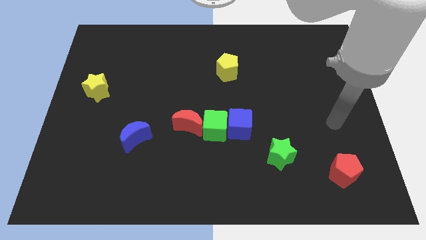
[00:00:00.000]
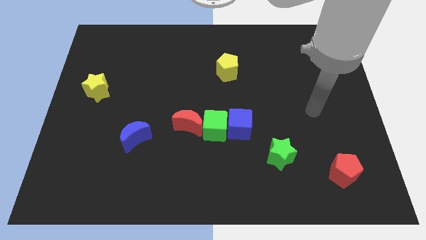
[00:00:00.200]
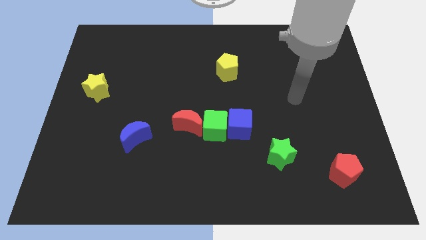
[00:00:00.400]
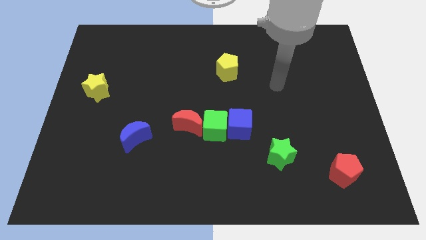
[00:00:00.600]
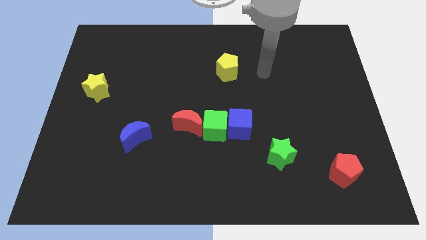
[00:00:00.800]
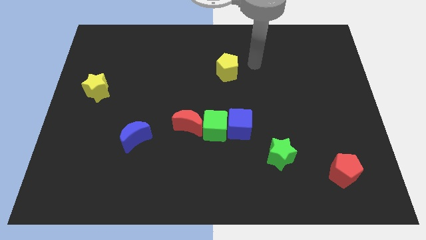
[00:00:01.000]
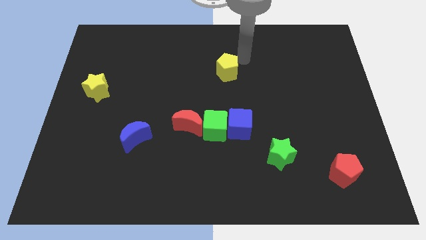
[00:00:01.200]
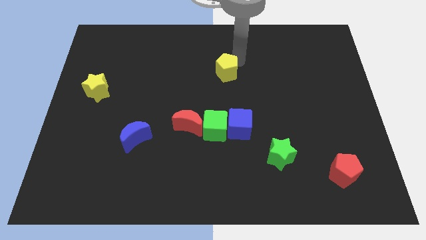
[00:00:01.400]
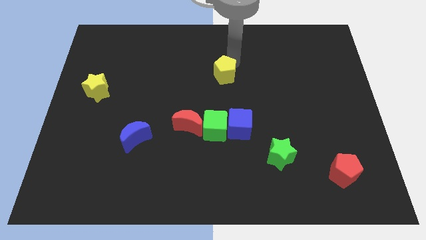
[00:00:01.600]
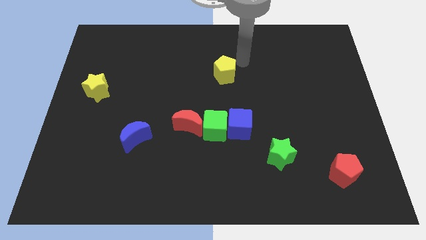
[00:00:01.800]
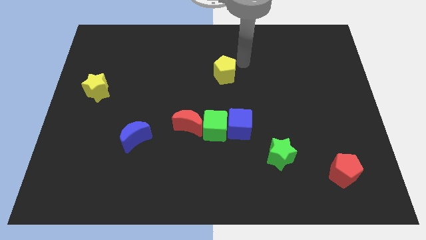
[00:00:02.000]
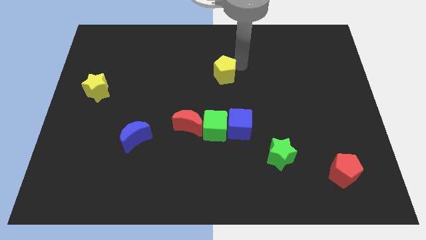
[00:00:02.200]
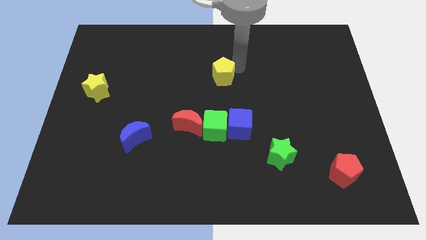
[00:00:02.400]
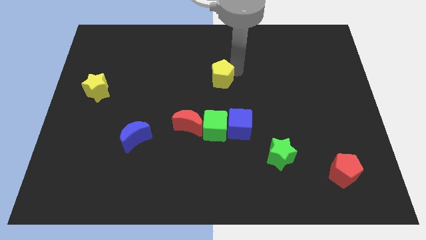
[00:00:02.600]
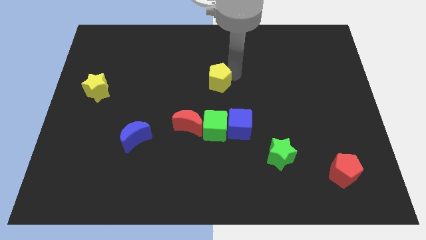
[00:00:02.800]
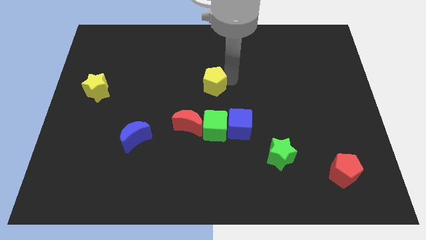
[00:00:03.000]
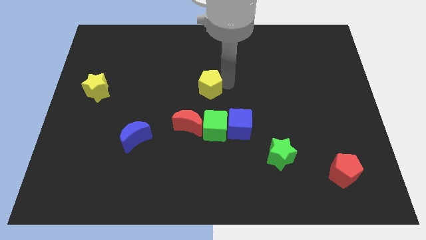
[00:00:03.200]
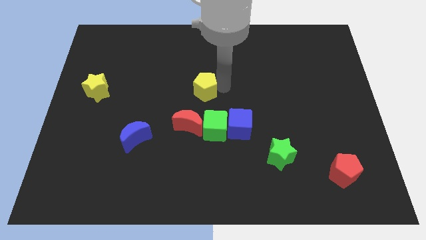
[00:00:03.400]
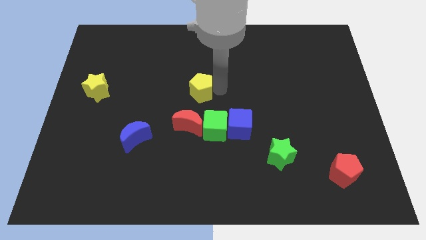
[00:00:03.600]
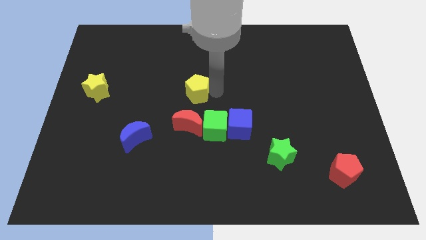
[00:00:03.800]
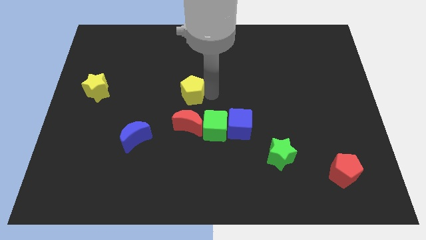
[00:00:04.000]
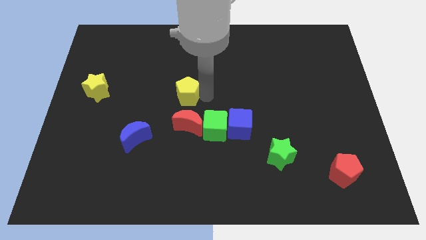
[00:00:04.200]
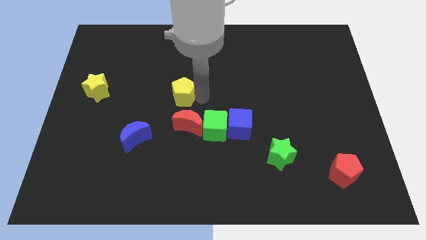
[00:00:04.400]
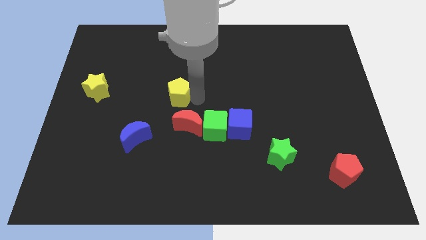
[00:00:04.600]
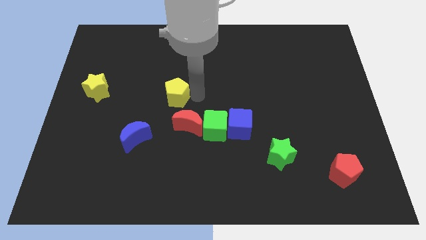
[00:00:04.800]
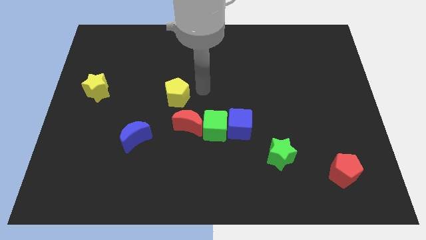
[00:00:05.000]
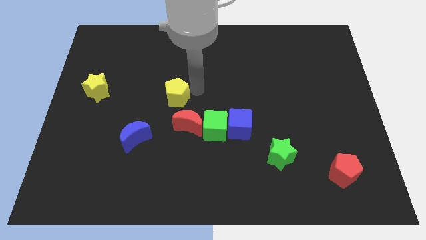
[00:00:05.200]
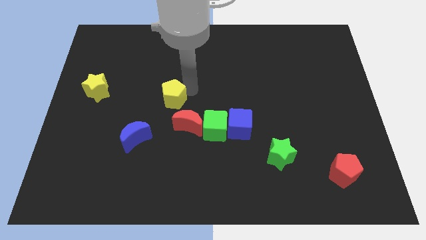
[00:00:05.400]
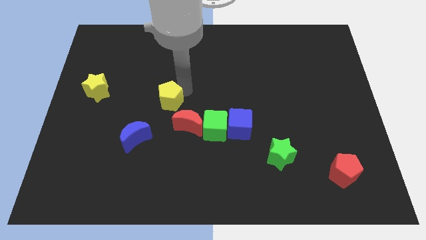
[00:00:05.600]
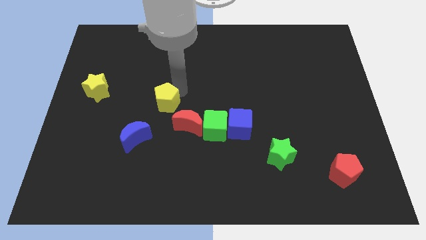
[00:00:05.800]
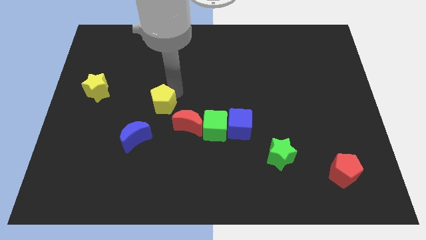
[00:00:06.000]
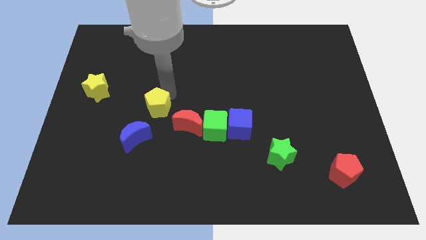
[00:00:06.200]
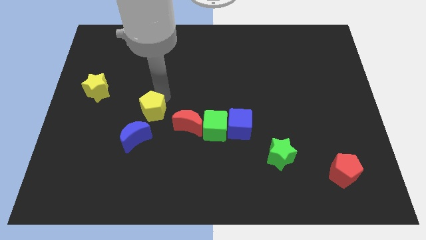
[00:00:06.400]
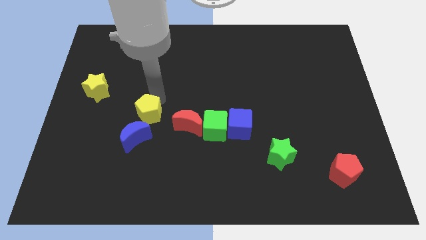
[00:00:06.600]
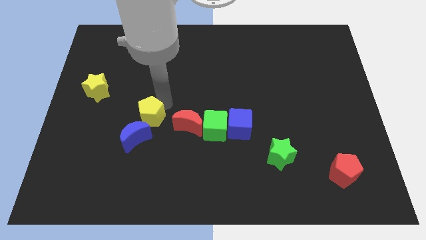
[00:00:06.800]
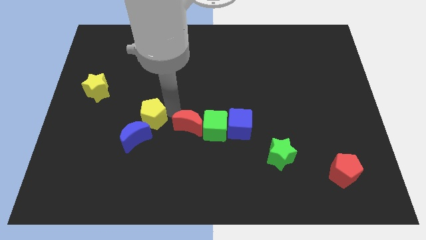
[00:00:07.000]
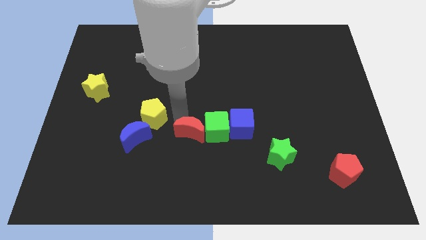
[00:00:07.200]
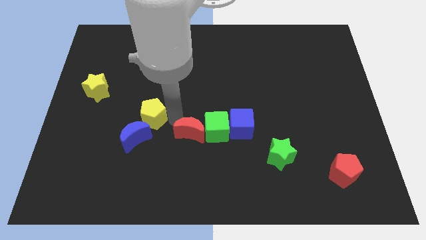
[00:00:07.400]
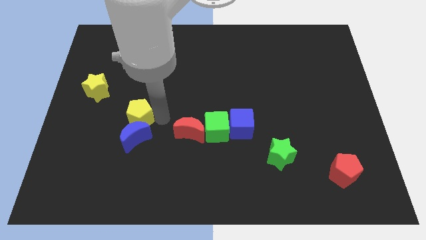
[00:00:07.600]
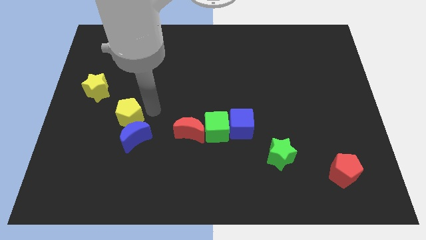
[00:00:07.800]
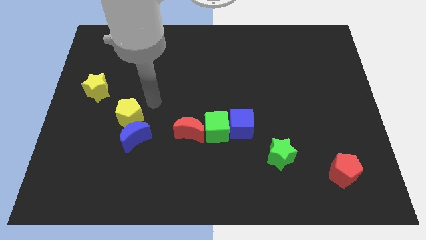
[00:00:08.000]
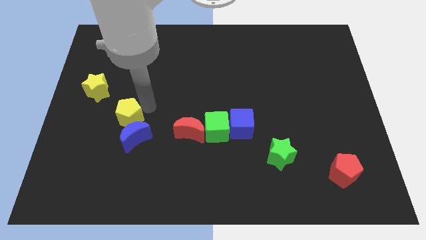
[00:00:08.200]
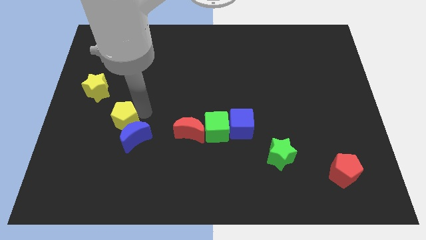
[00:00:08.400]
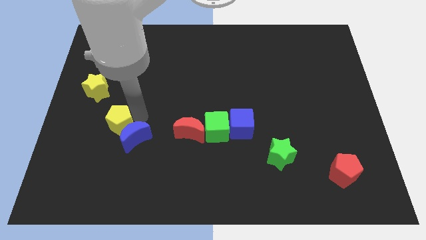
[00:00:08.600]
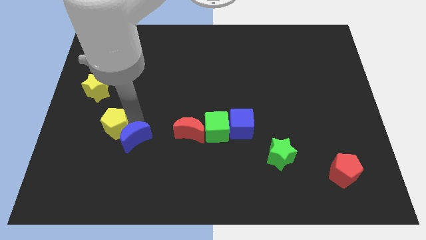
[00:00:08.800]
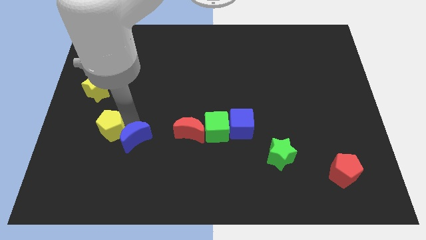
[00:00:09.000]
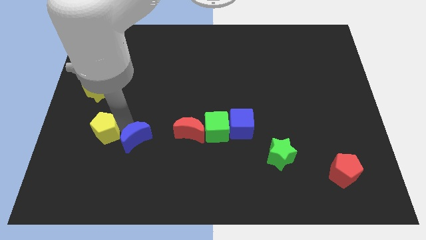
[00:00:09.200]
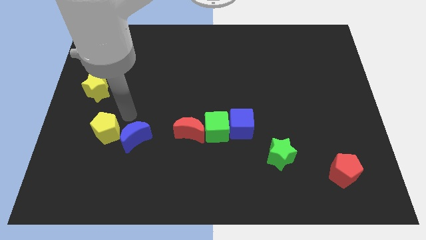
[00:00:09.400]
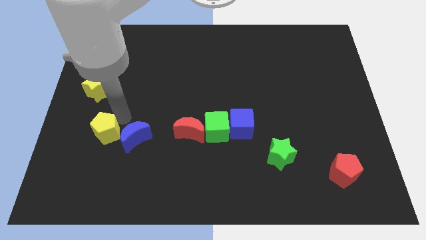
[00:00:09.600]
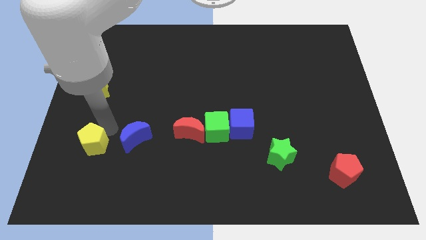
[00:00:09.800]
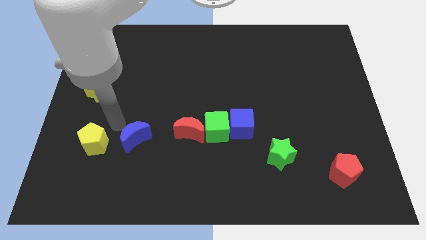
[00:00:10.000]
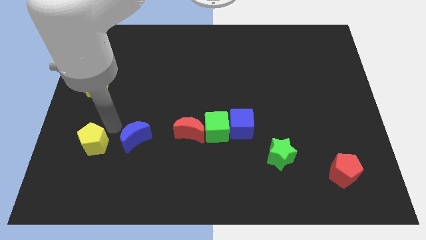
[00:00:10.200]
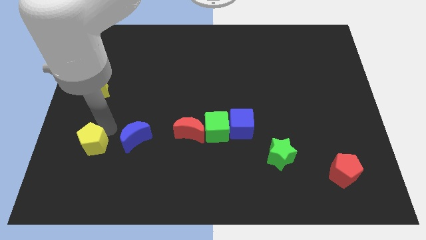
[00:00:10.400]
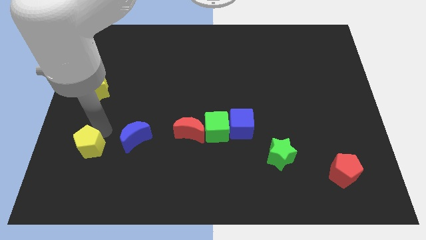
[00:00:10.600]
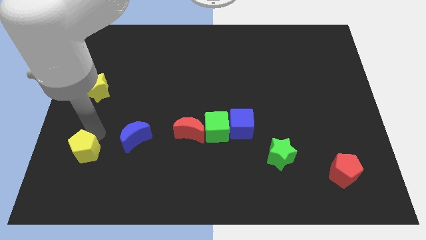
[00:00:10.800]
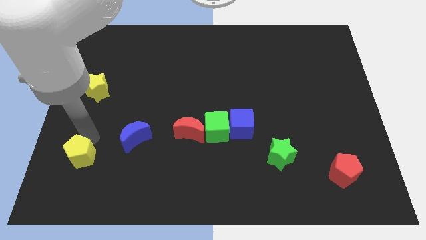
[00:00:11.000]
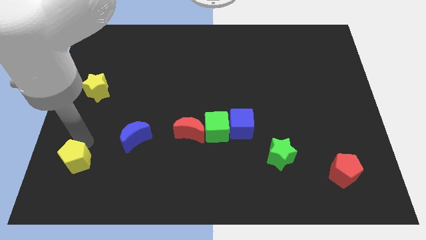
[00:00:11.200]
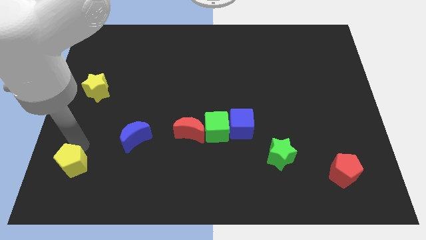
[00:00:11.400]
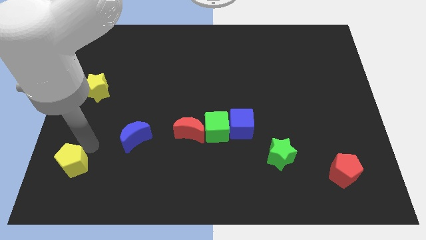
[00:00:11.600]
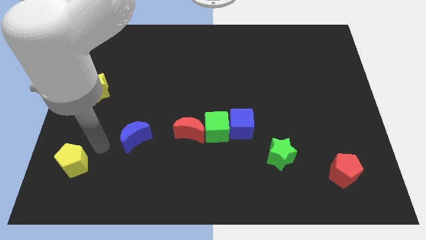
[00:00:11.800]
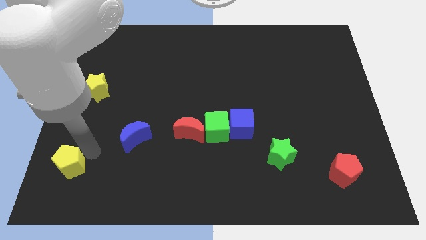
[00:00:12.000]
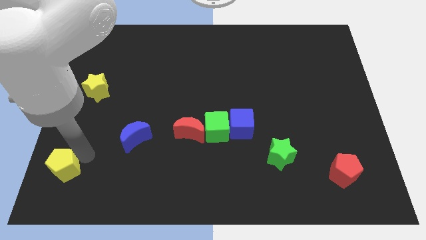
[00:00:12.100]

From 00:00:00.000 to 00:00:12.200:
put the yellow pentagon to the lower left corner

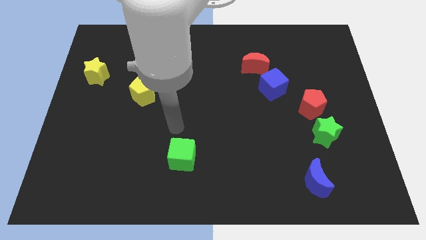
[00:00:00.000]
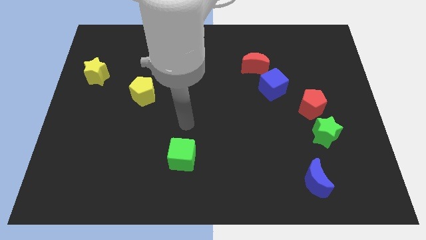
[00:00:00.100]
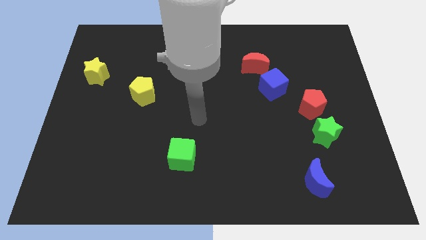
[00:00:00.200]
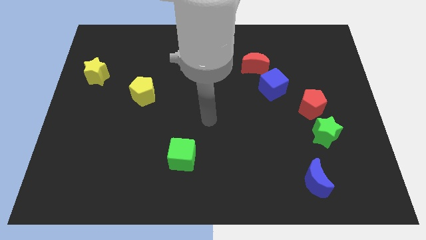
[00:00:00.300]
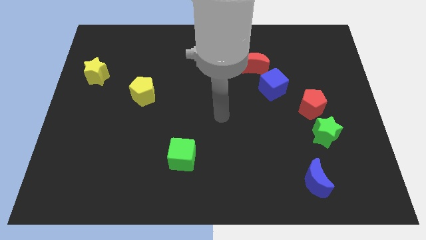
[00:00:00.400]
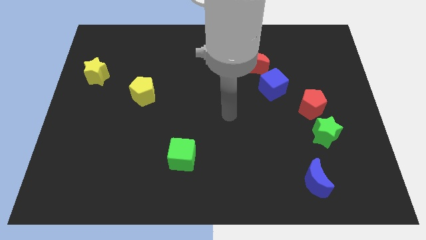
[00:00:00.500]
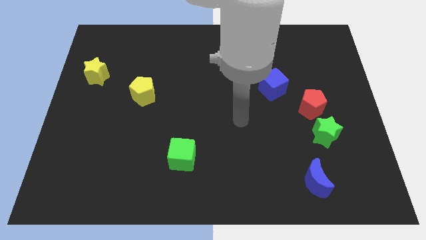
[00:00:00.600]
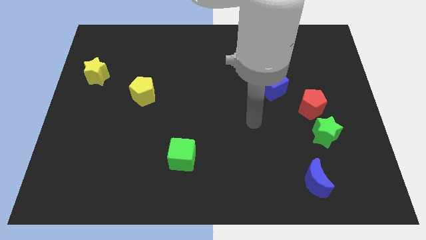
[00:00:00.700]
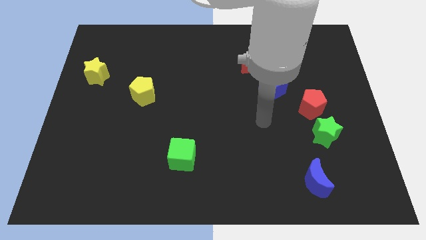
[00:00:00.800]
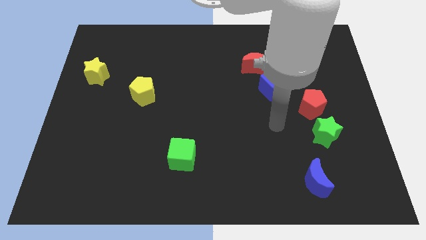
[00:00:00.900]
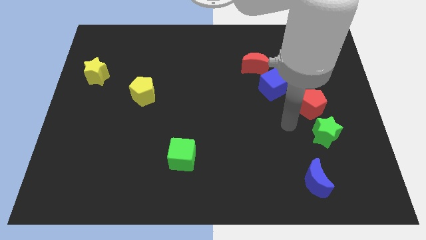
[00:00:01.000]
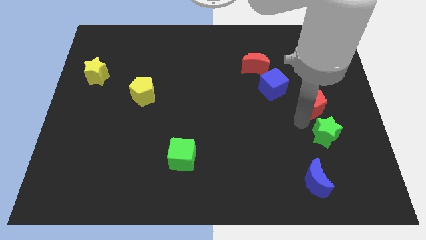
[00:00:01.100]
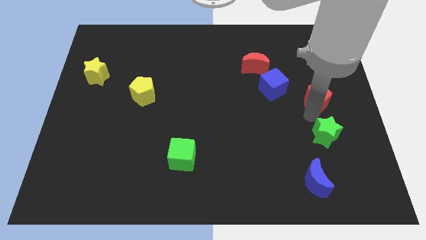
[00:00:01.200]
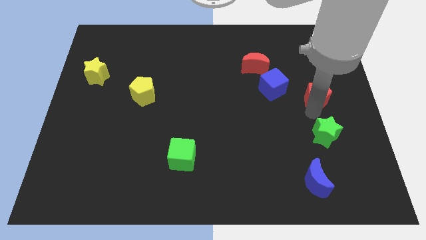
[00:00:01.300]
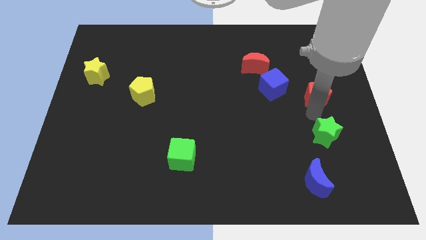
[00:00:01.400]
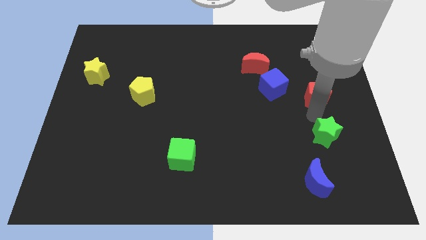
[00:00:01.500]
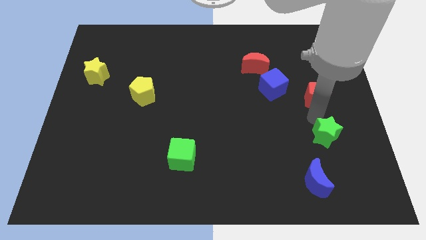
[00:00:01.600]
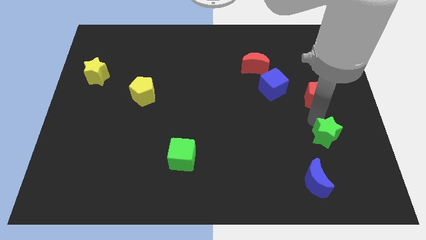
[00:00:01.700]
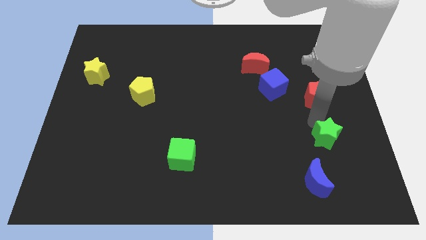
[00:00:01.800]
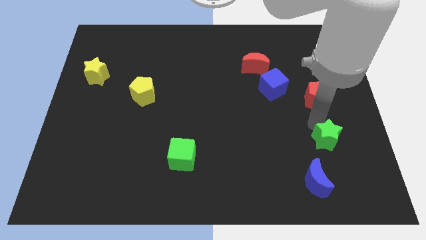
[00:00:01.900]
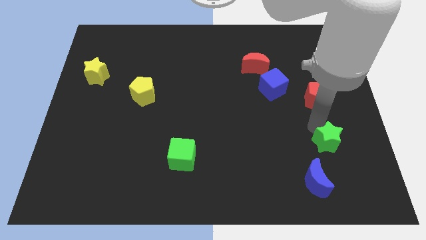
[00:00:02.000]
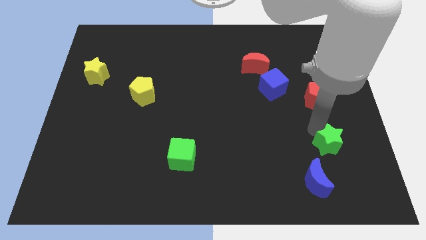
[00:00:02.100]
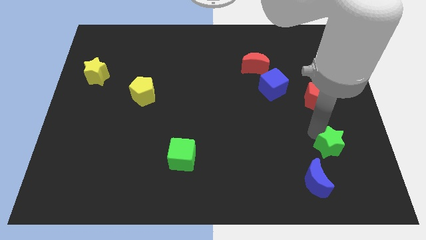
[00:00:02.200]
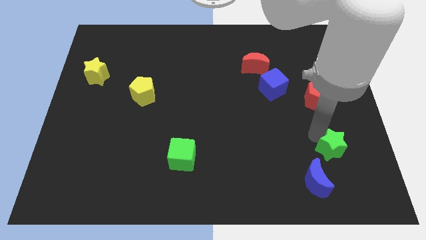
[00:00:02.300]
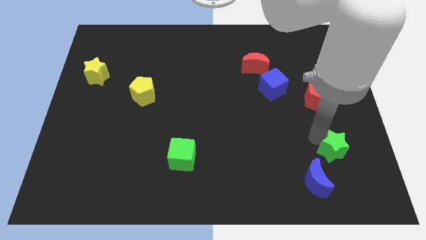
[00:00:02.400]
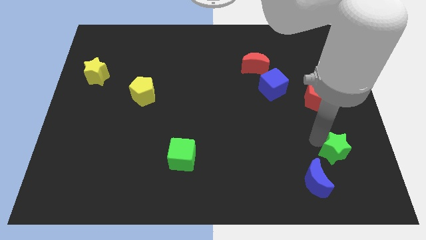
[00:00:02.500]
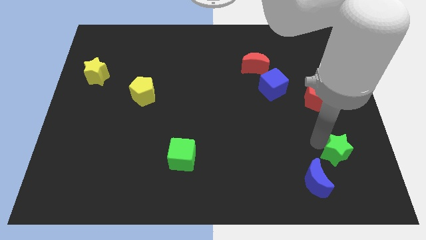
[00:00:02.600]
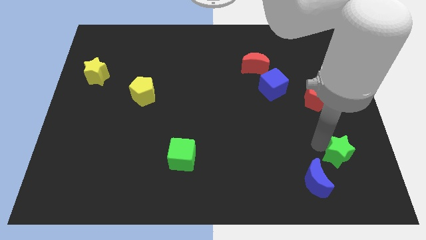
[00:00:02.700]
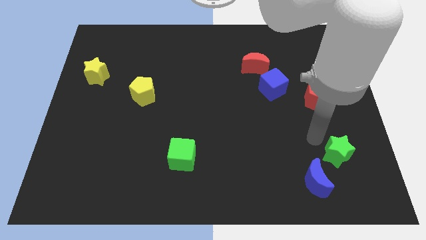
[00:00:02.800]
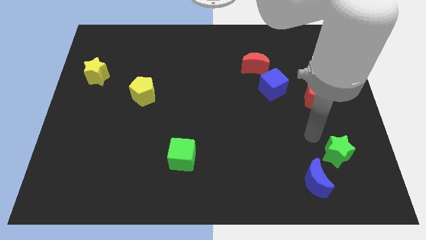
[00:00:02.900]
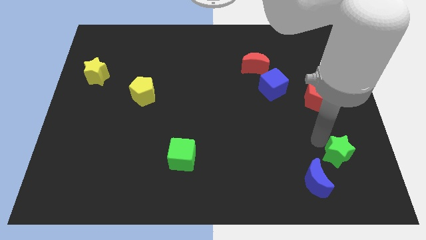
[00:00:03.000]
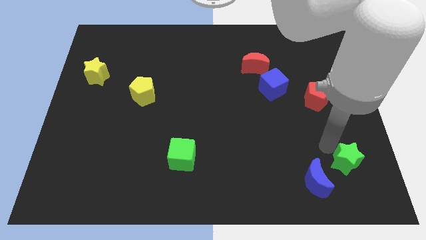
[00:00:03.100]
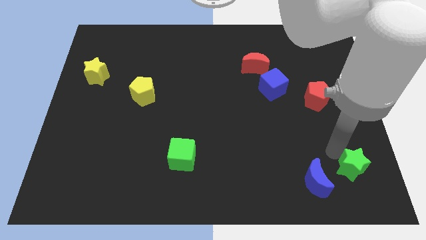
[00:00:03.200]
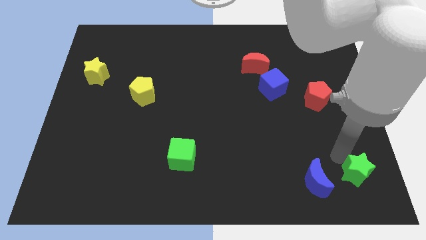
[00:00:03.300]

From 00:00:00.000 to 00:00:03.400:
slide the green star to the bottom right of the board
